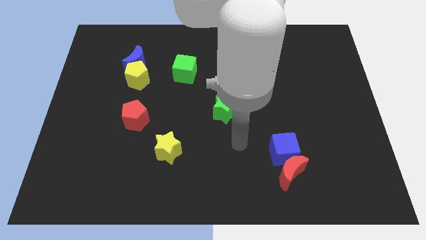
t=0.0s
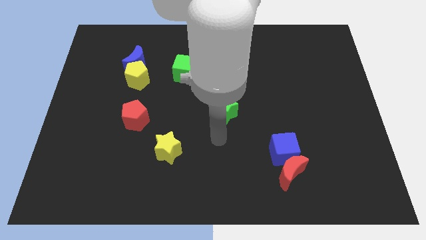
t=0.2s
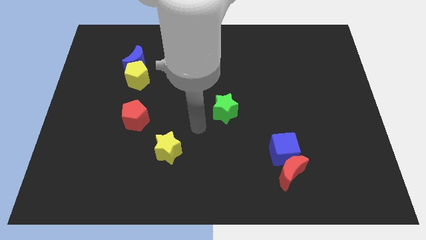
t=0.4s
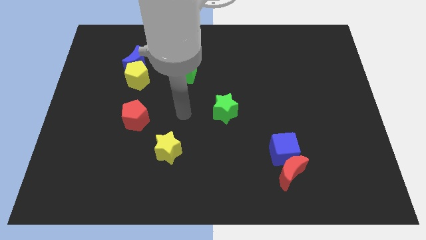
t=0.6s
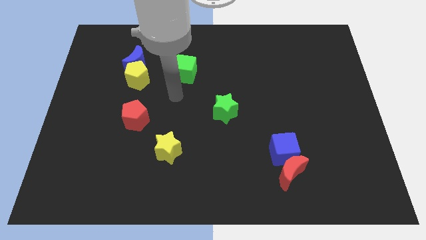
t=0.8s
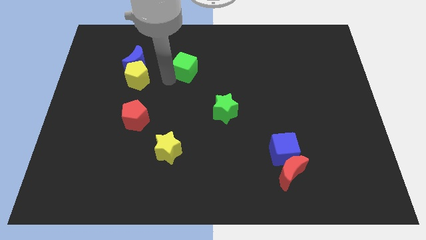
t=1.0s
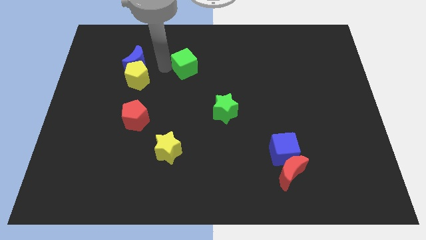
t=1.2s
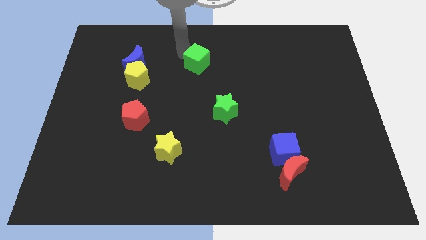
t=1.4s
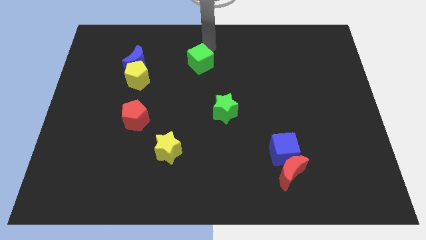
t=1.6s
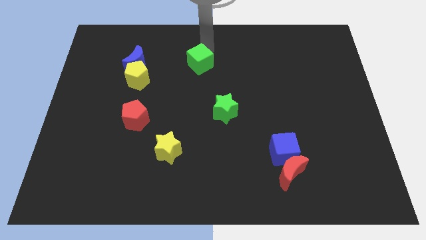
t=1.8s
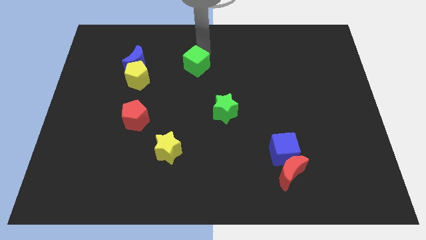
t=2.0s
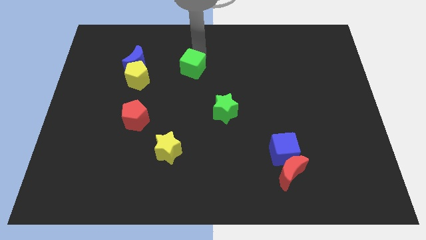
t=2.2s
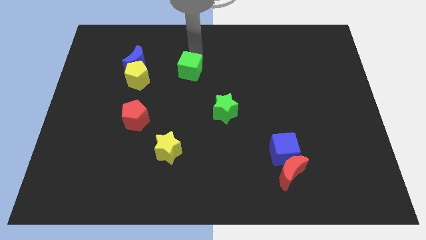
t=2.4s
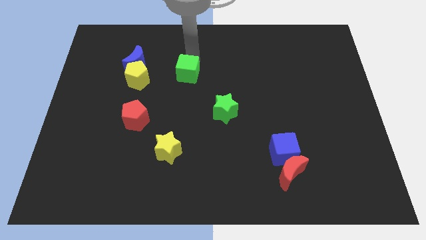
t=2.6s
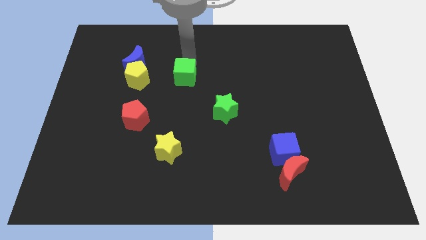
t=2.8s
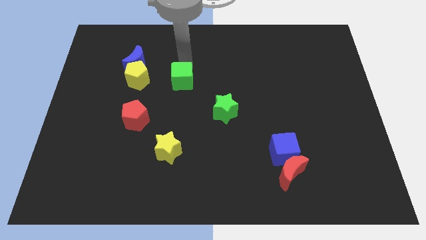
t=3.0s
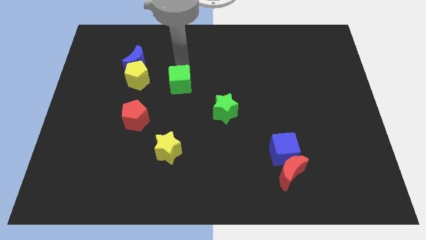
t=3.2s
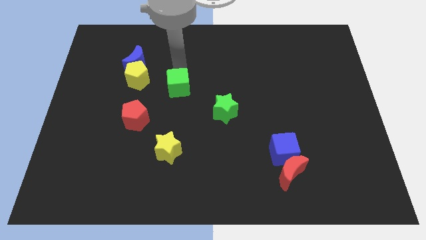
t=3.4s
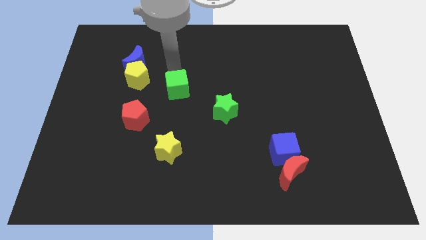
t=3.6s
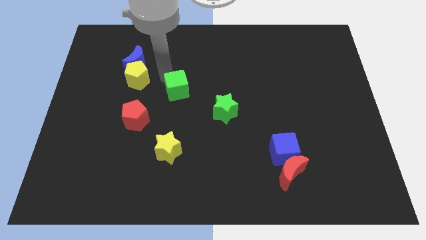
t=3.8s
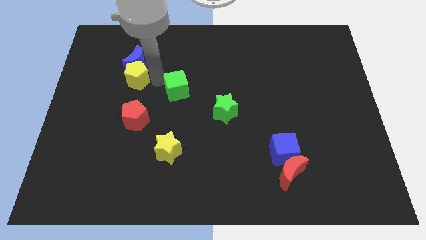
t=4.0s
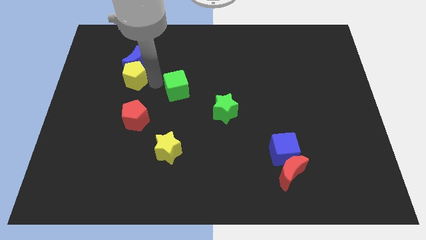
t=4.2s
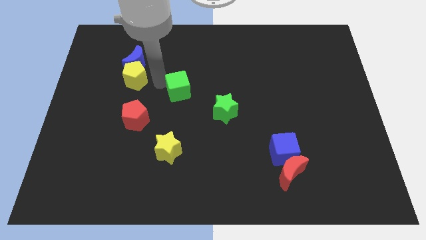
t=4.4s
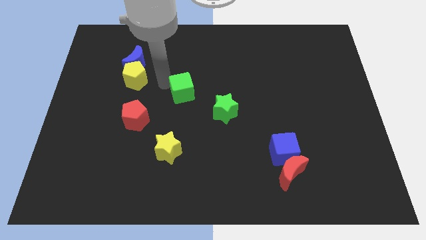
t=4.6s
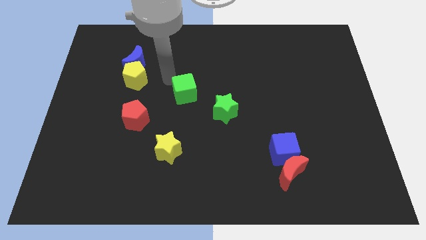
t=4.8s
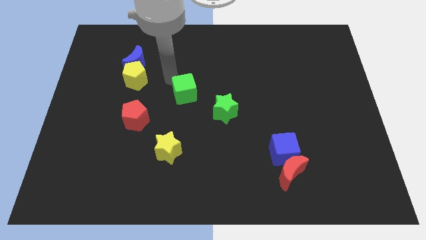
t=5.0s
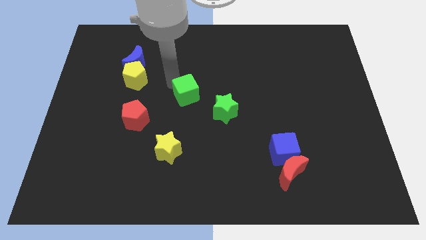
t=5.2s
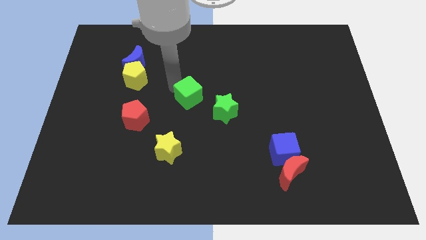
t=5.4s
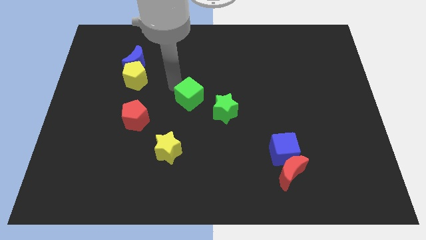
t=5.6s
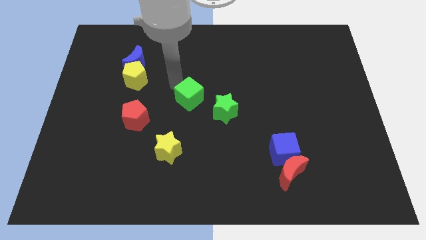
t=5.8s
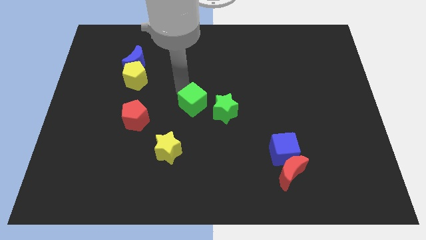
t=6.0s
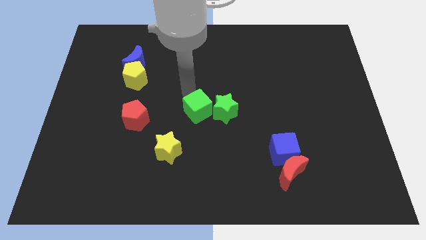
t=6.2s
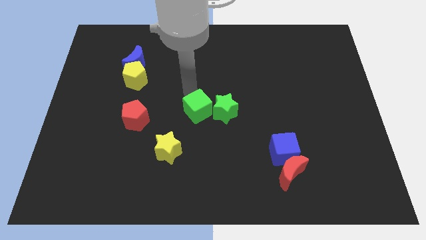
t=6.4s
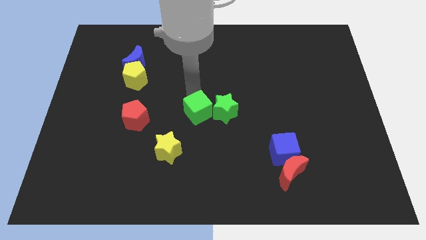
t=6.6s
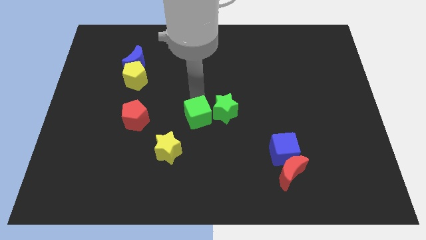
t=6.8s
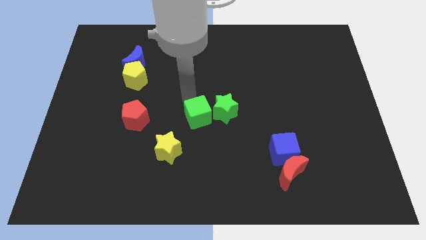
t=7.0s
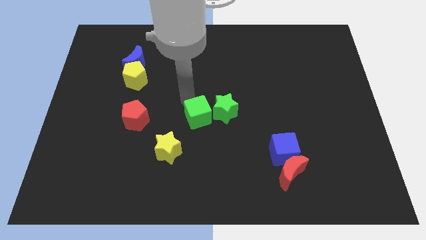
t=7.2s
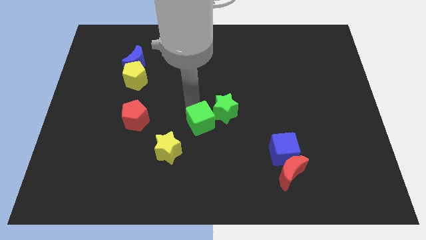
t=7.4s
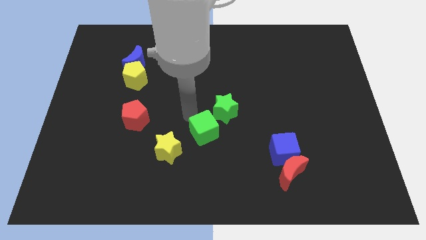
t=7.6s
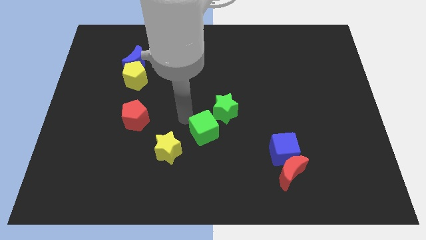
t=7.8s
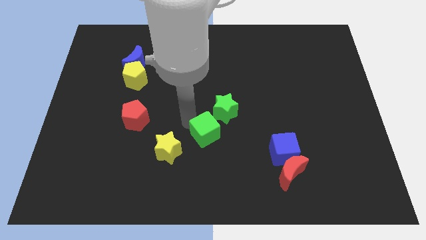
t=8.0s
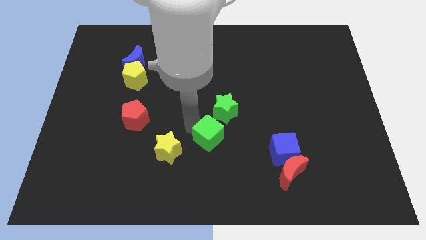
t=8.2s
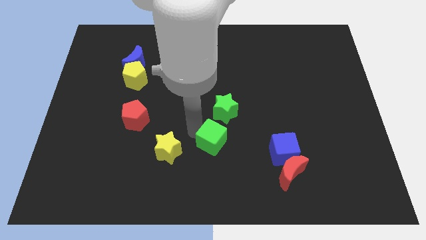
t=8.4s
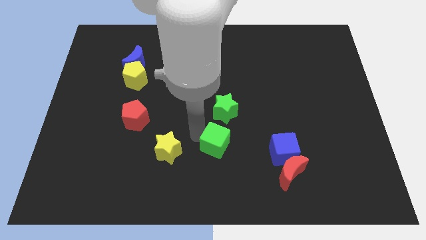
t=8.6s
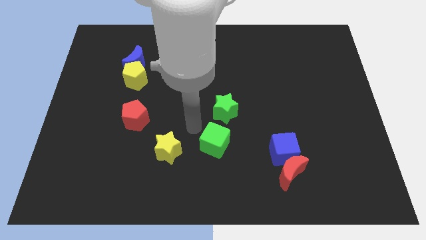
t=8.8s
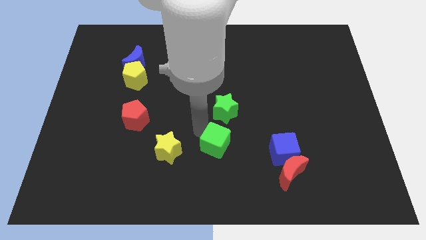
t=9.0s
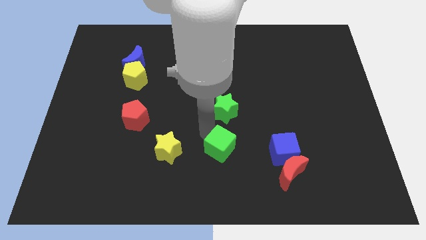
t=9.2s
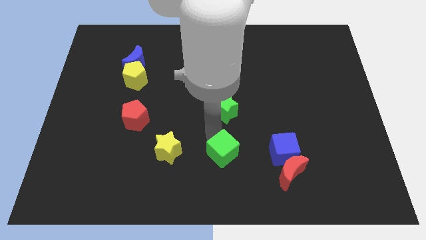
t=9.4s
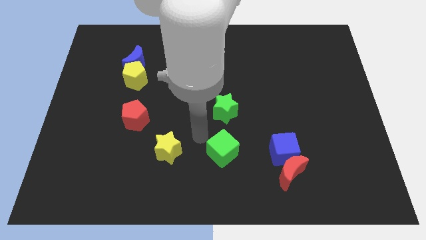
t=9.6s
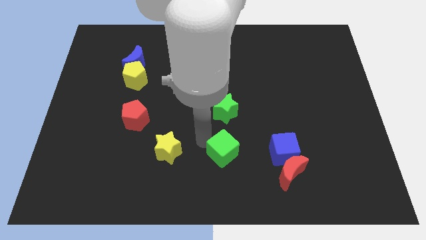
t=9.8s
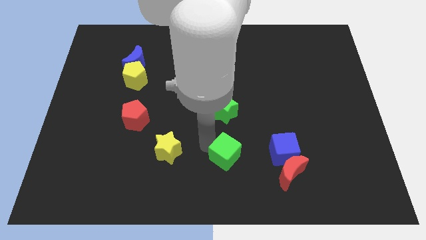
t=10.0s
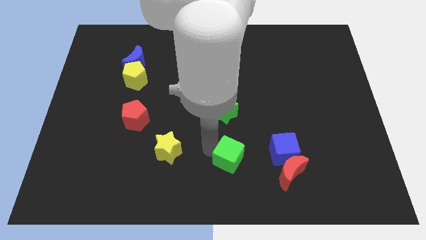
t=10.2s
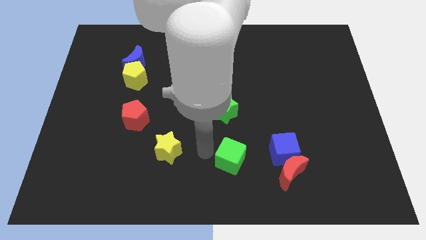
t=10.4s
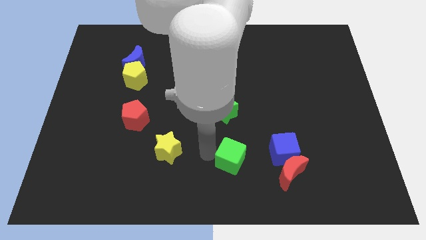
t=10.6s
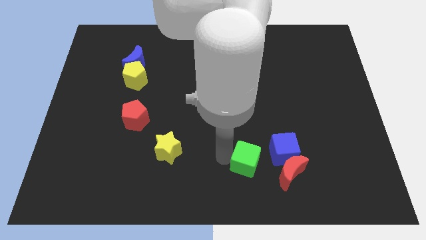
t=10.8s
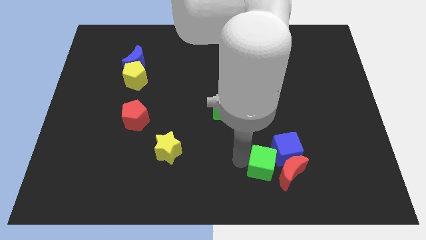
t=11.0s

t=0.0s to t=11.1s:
slide the green cube to the red moon

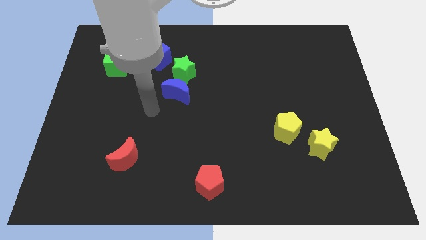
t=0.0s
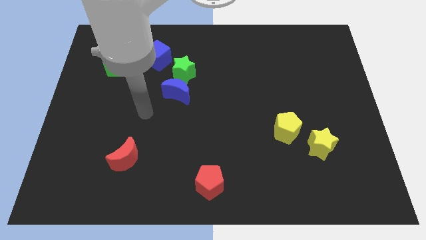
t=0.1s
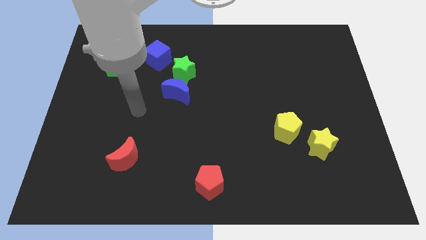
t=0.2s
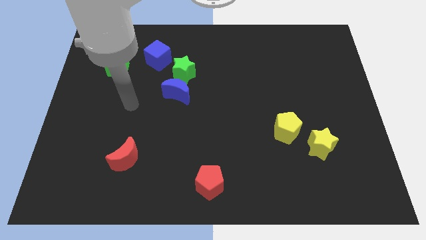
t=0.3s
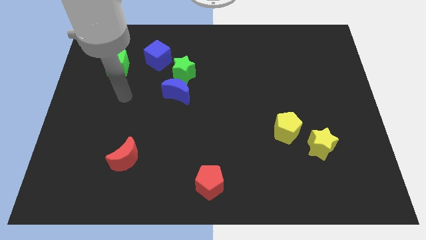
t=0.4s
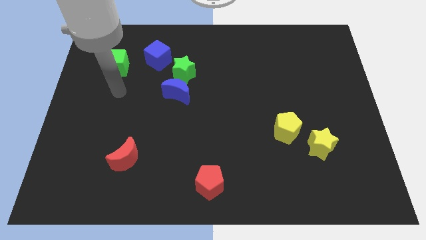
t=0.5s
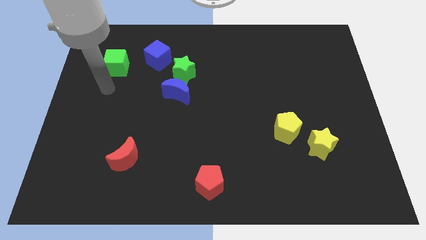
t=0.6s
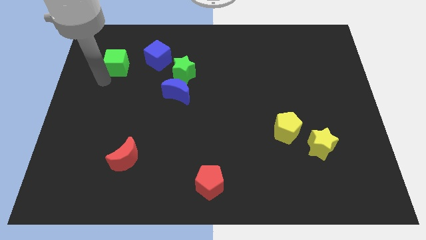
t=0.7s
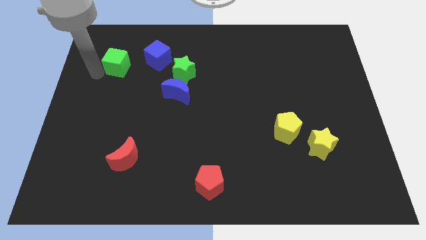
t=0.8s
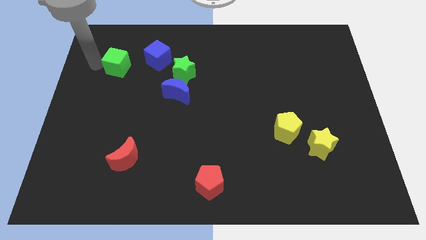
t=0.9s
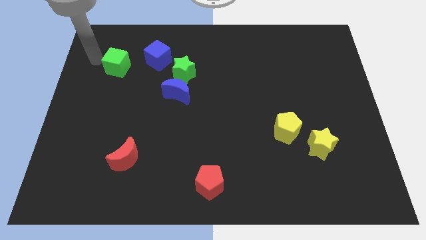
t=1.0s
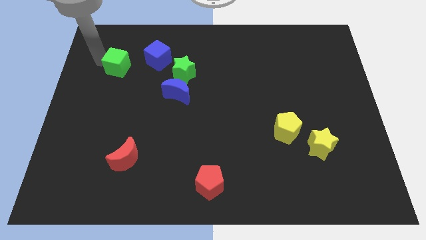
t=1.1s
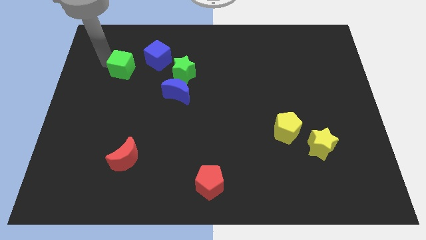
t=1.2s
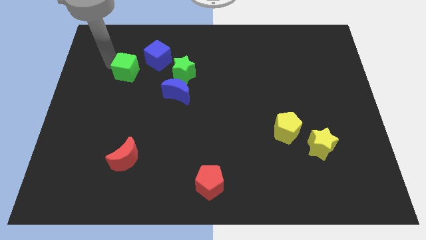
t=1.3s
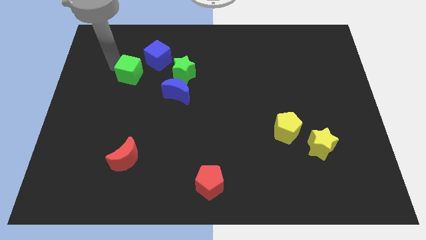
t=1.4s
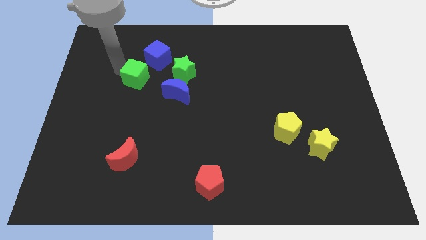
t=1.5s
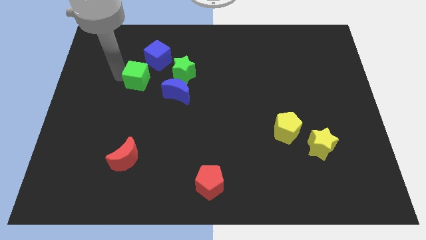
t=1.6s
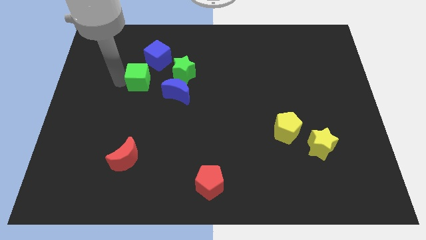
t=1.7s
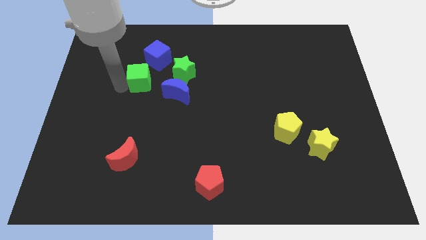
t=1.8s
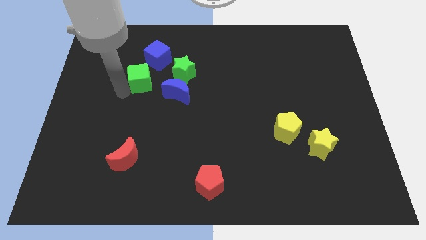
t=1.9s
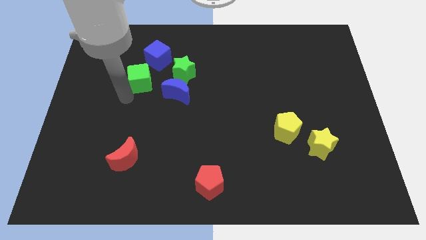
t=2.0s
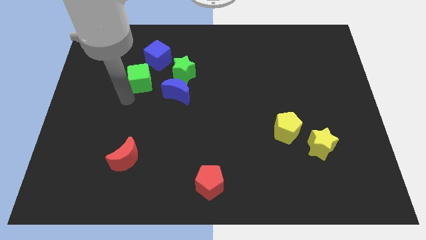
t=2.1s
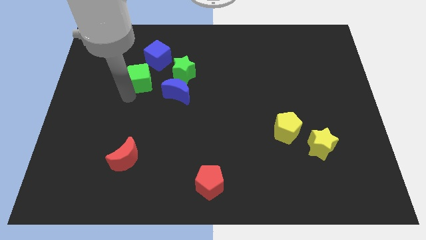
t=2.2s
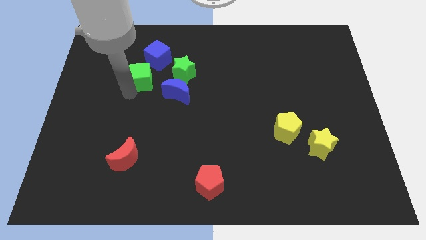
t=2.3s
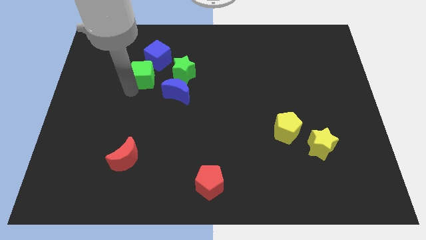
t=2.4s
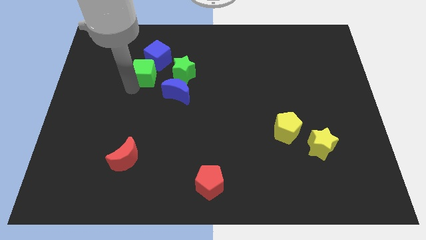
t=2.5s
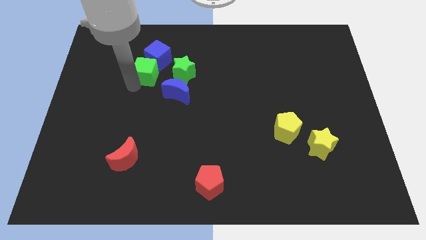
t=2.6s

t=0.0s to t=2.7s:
put the green cube close to the blue cube
